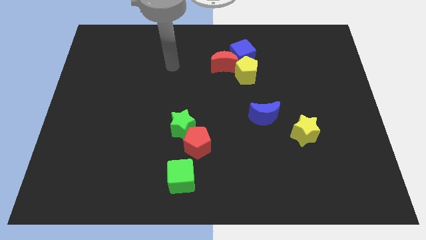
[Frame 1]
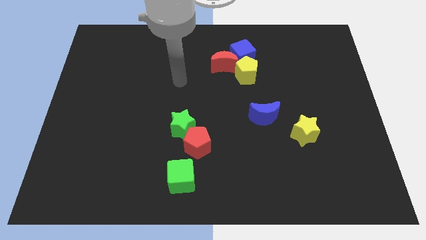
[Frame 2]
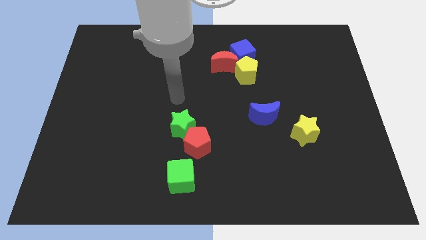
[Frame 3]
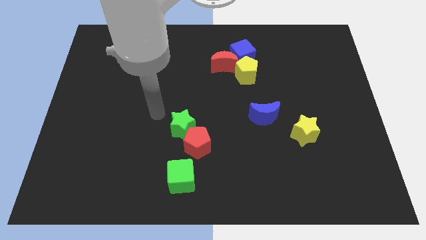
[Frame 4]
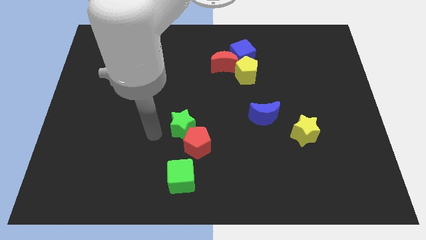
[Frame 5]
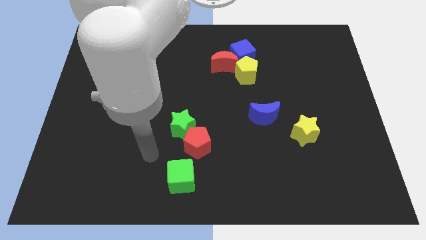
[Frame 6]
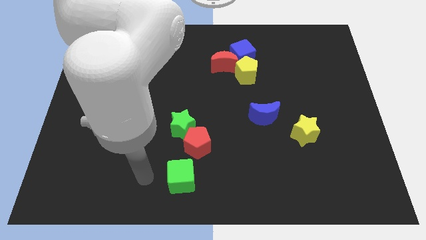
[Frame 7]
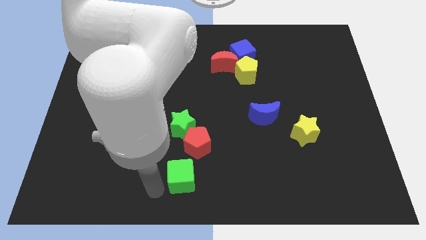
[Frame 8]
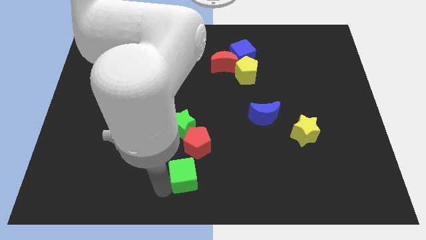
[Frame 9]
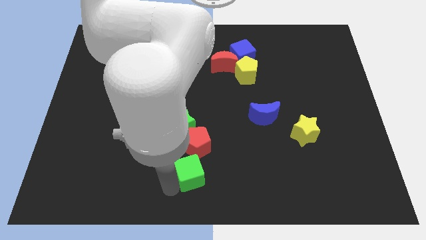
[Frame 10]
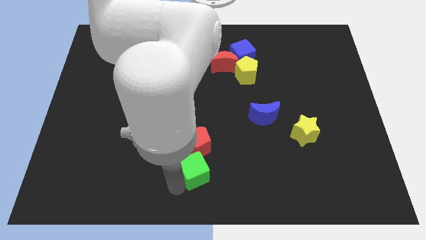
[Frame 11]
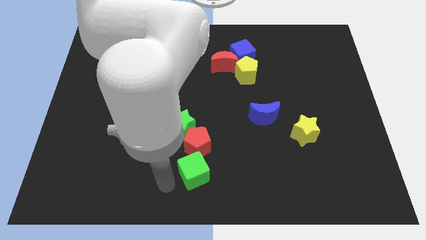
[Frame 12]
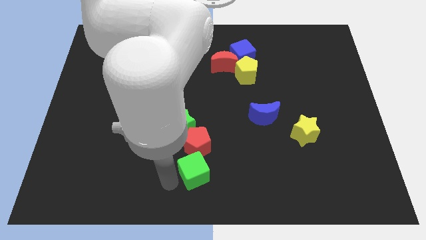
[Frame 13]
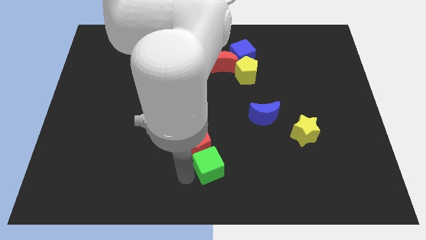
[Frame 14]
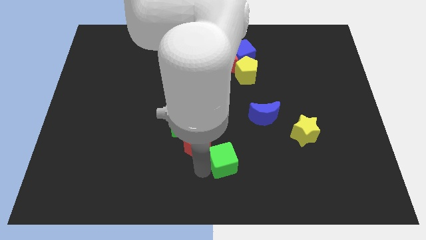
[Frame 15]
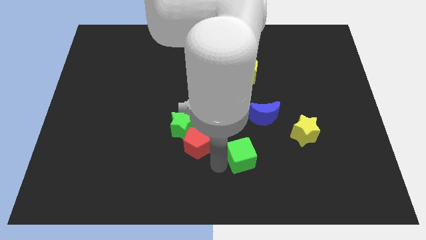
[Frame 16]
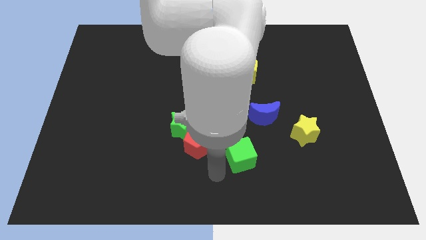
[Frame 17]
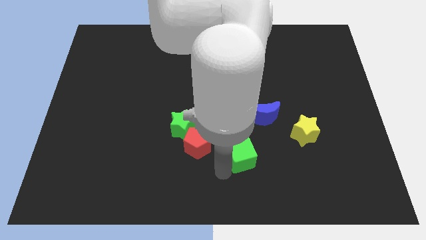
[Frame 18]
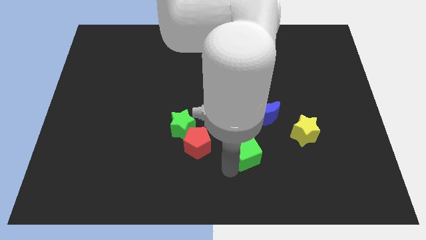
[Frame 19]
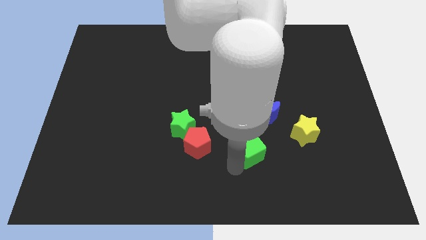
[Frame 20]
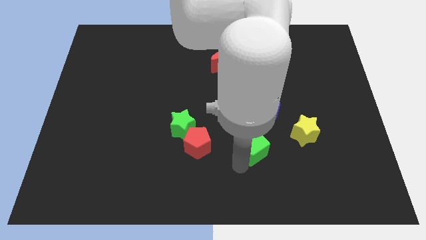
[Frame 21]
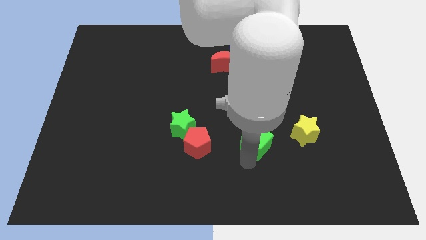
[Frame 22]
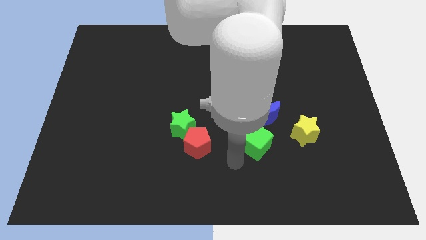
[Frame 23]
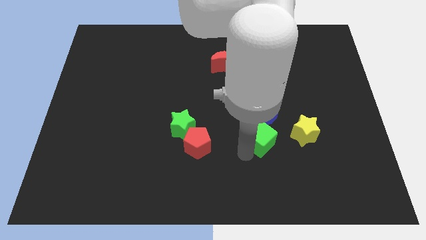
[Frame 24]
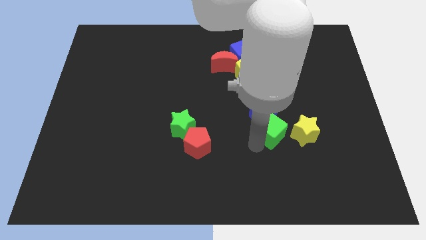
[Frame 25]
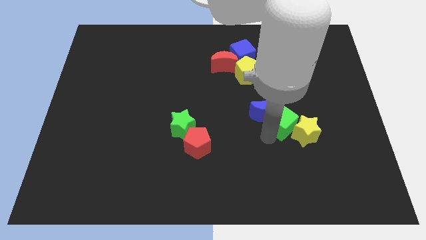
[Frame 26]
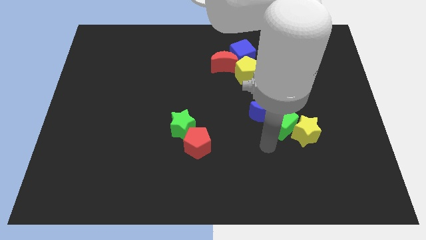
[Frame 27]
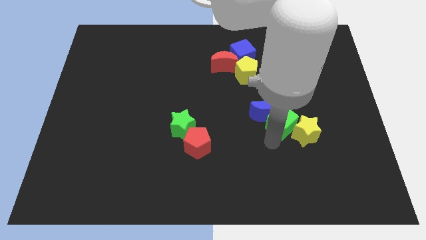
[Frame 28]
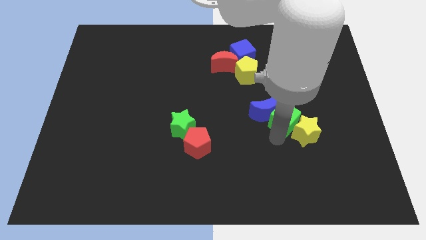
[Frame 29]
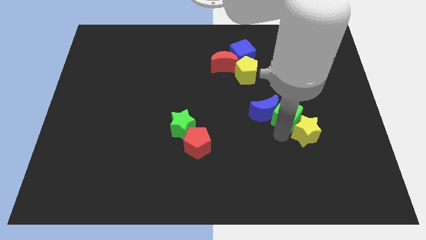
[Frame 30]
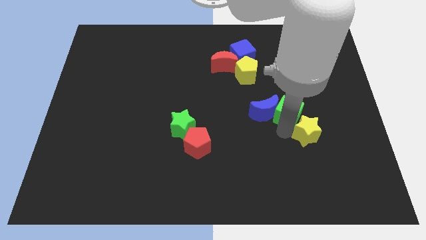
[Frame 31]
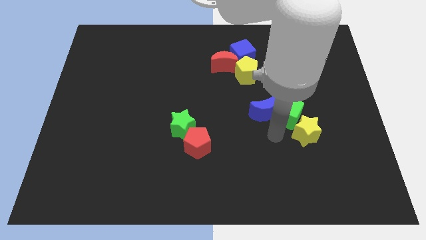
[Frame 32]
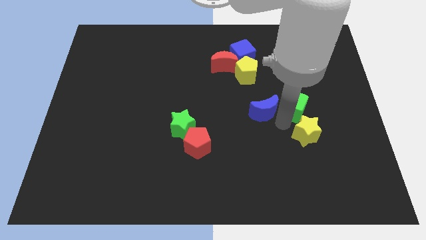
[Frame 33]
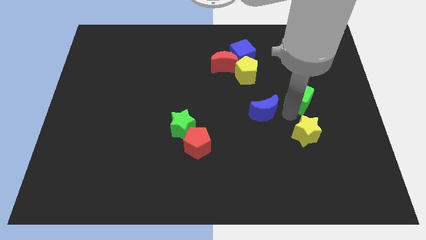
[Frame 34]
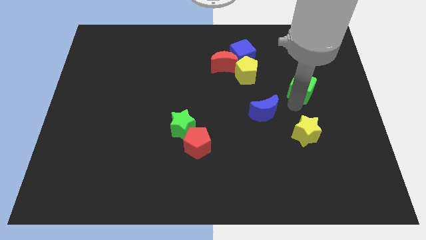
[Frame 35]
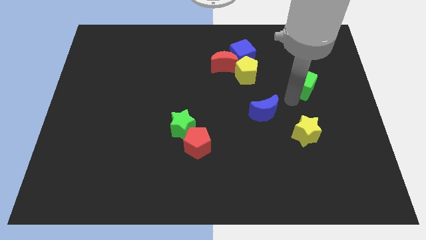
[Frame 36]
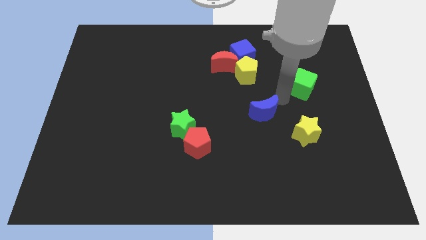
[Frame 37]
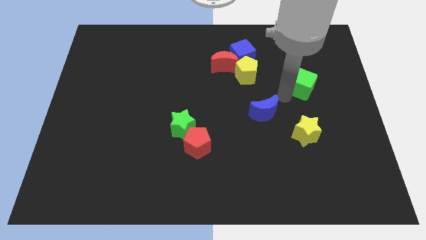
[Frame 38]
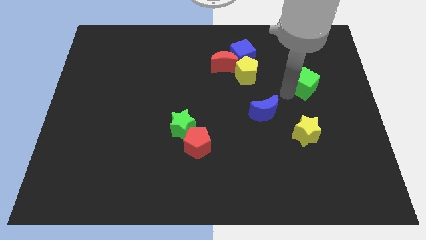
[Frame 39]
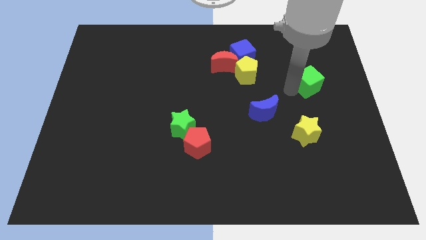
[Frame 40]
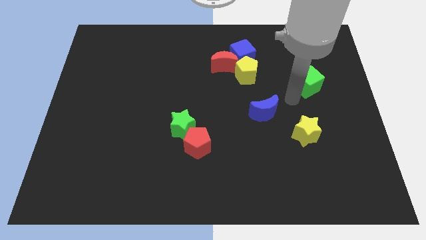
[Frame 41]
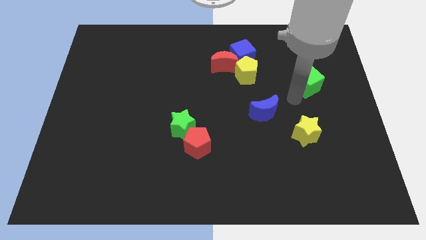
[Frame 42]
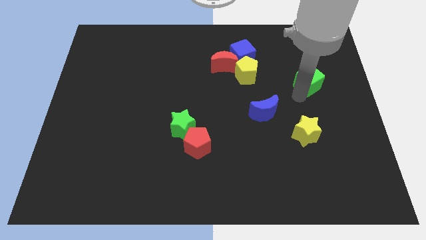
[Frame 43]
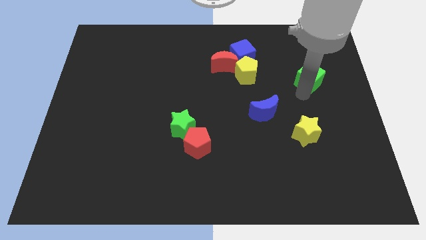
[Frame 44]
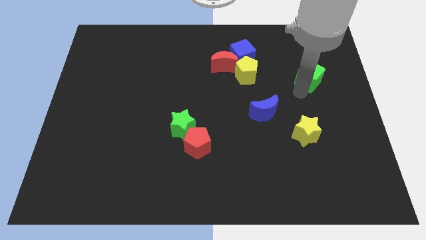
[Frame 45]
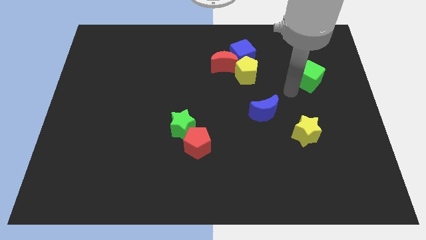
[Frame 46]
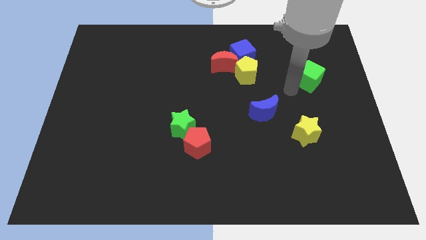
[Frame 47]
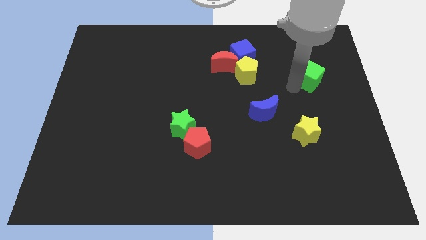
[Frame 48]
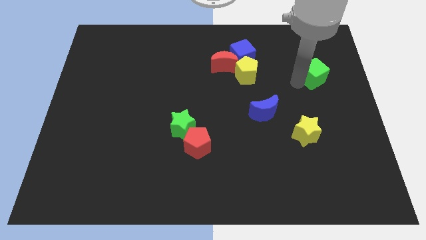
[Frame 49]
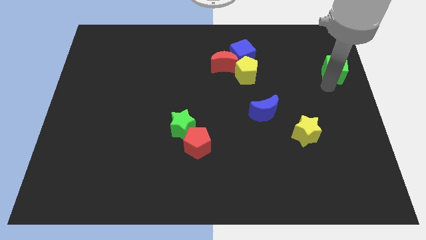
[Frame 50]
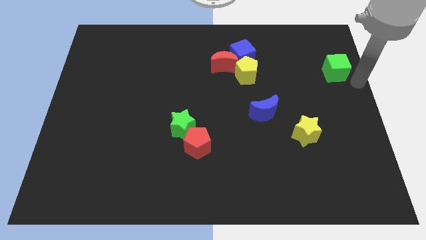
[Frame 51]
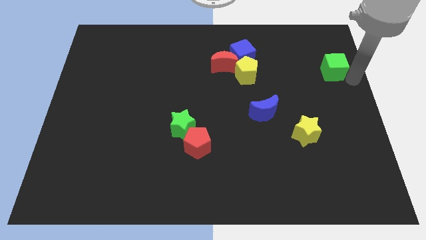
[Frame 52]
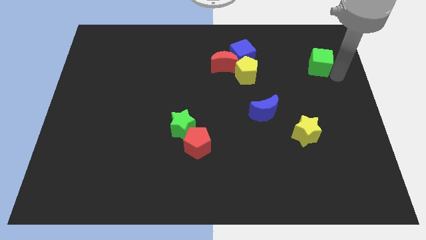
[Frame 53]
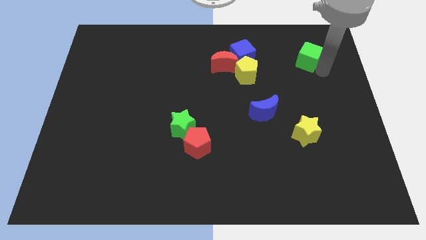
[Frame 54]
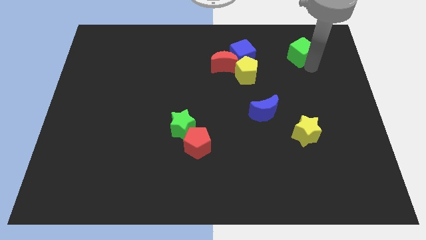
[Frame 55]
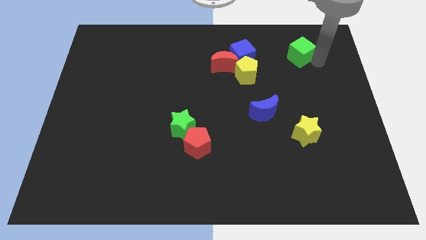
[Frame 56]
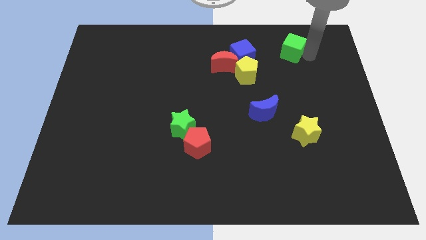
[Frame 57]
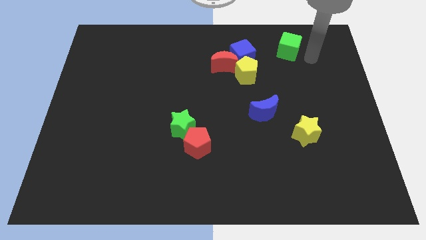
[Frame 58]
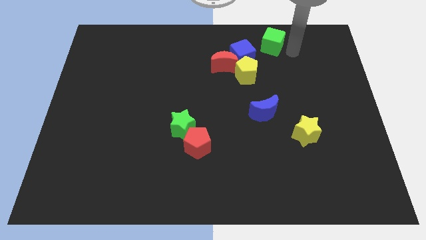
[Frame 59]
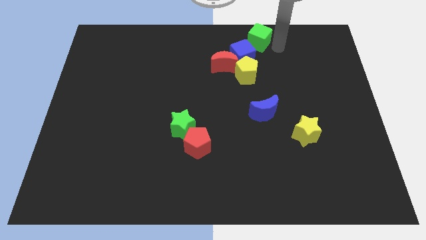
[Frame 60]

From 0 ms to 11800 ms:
put the green cube to the towards your base

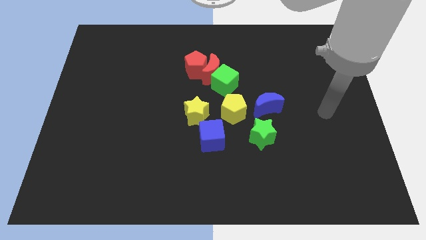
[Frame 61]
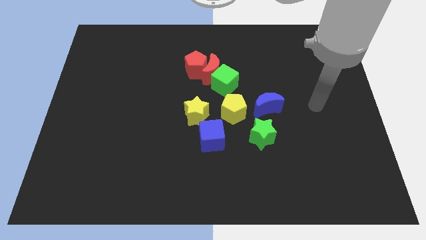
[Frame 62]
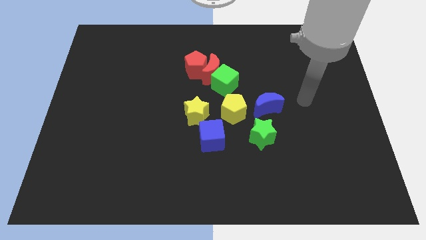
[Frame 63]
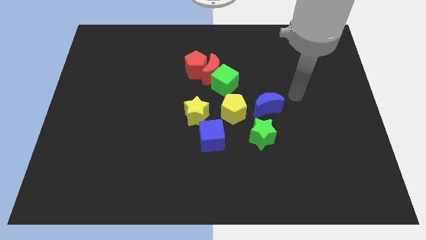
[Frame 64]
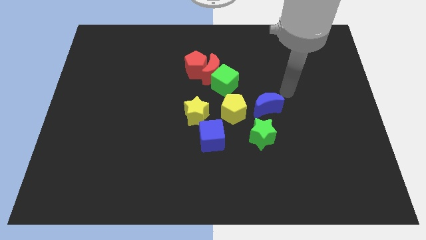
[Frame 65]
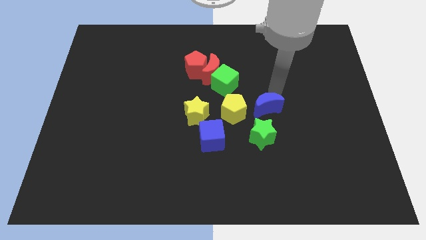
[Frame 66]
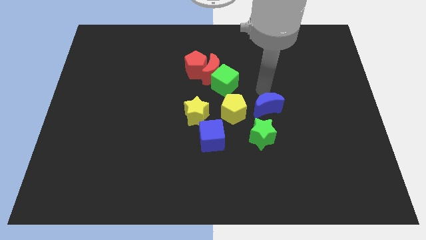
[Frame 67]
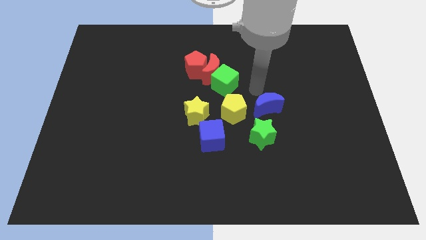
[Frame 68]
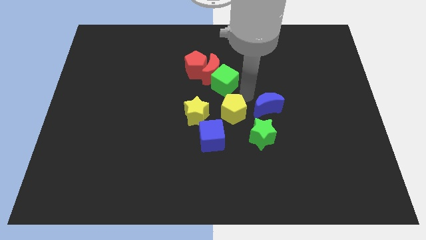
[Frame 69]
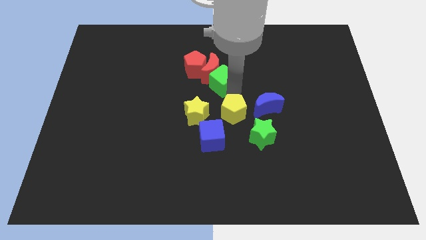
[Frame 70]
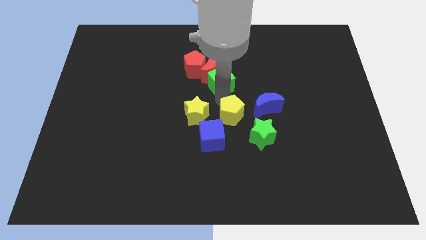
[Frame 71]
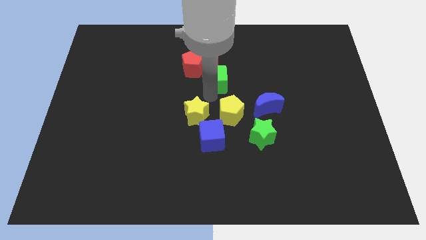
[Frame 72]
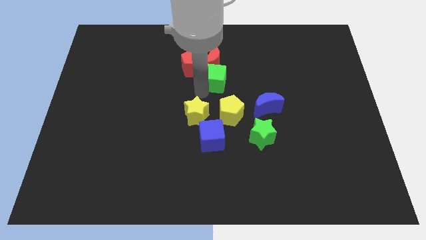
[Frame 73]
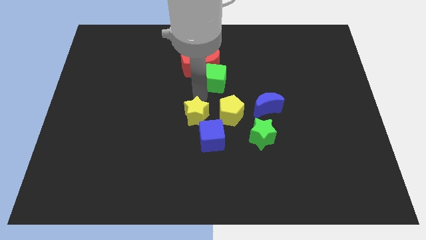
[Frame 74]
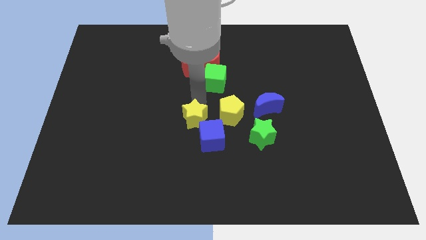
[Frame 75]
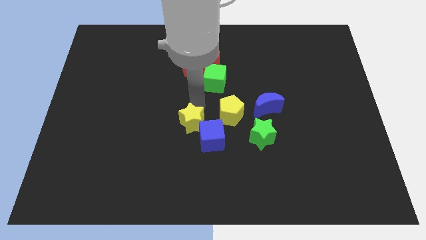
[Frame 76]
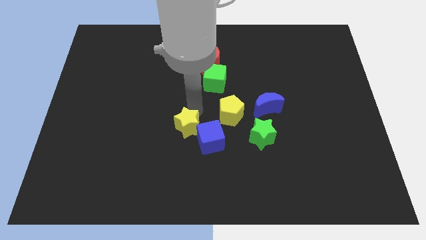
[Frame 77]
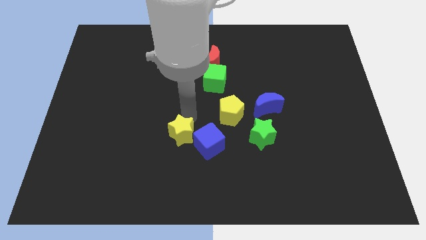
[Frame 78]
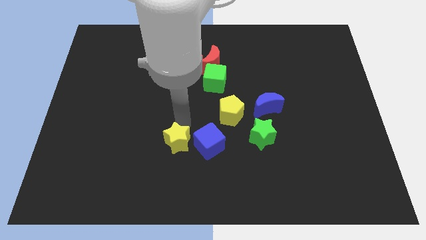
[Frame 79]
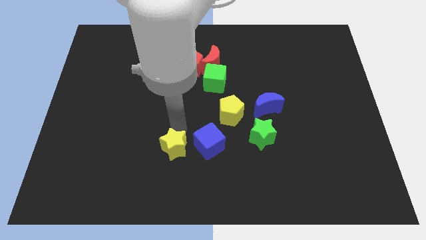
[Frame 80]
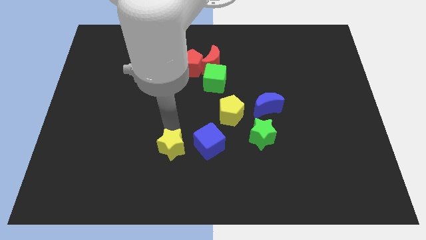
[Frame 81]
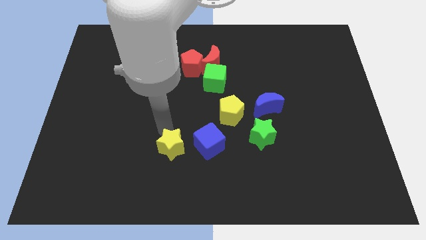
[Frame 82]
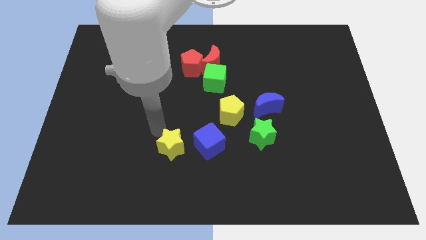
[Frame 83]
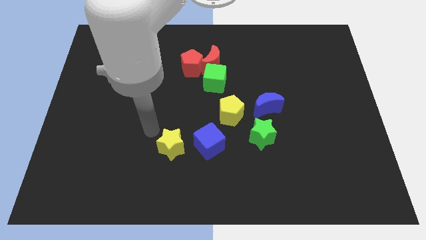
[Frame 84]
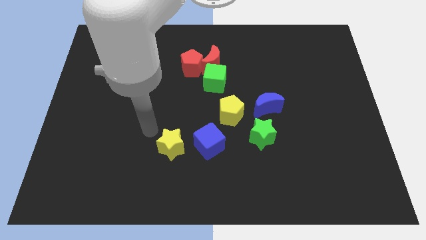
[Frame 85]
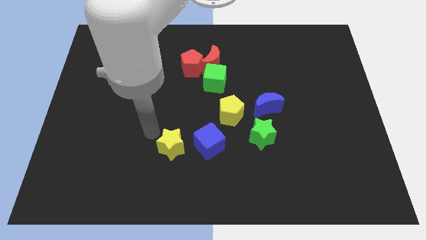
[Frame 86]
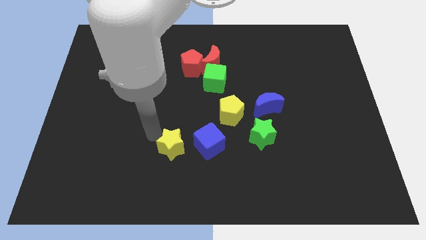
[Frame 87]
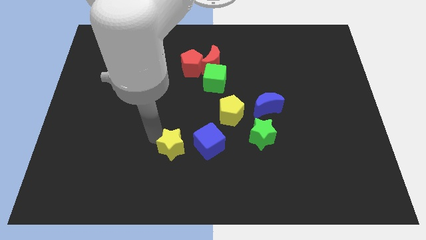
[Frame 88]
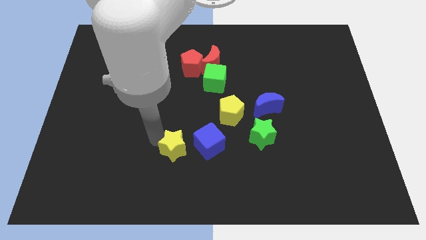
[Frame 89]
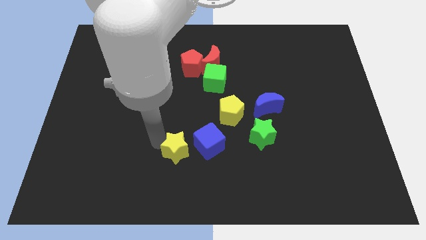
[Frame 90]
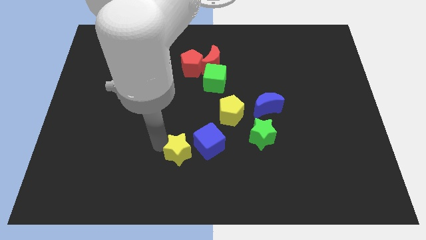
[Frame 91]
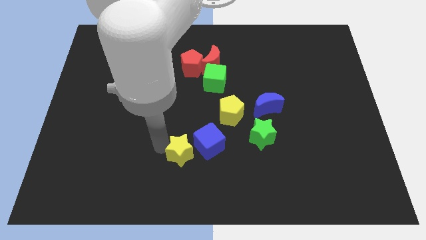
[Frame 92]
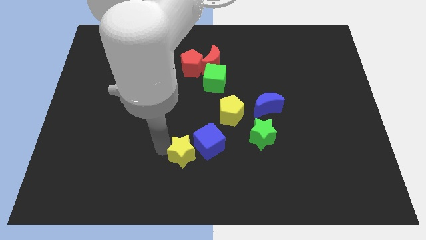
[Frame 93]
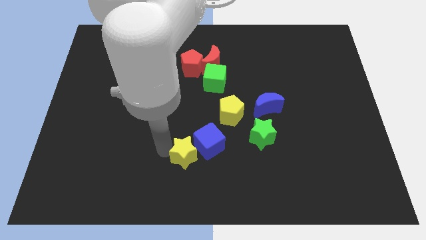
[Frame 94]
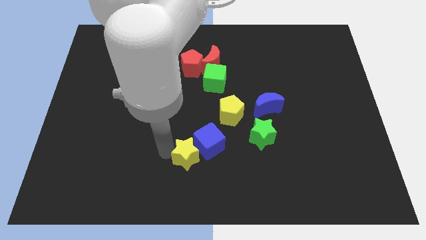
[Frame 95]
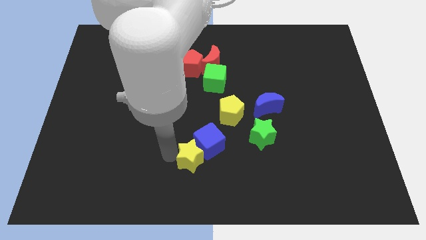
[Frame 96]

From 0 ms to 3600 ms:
move the yellow star to the bottom
